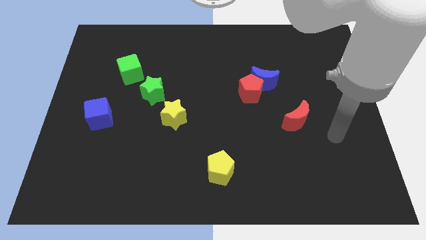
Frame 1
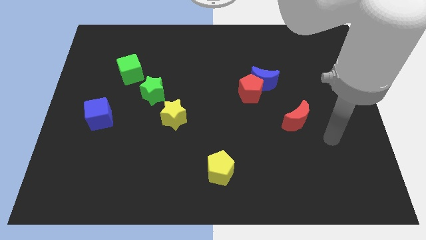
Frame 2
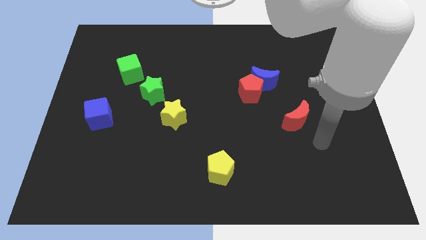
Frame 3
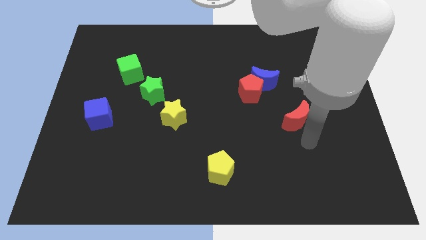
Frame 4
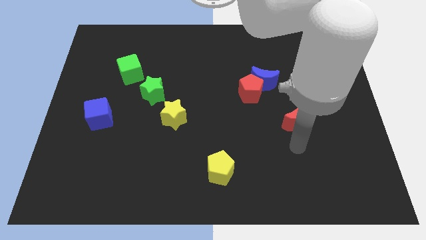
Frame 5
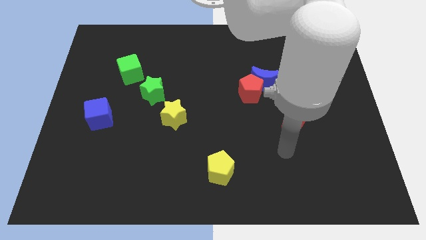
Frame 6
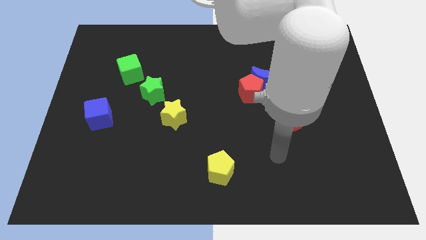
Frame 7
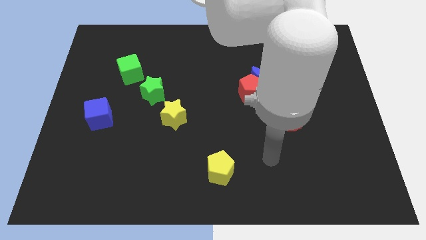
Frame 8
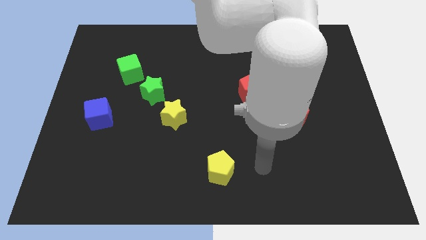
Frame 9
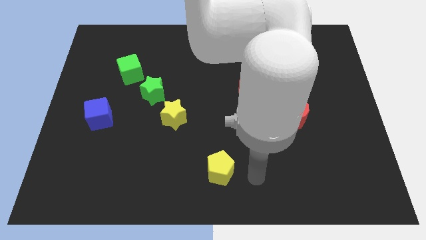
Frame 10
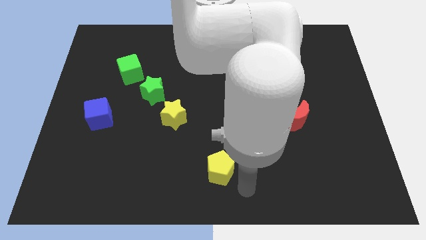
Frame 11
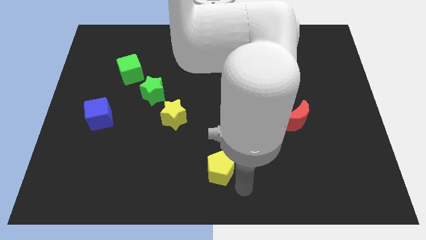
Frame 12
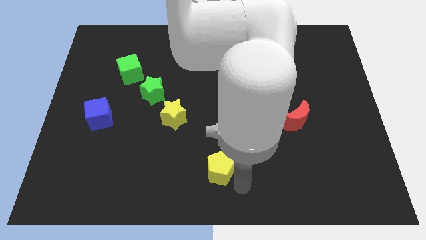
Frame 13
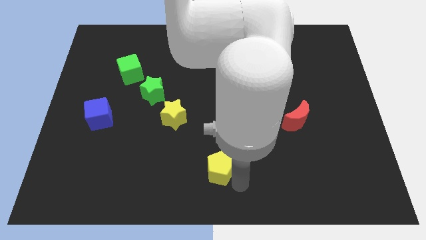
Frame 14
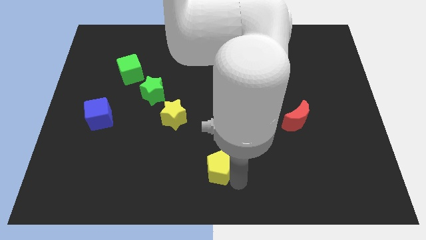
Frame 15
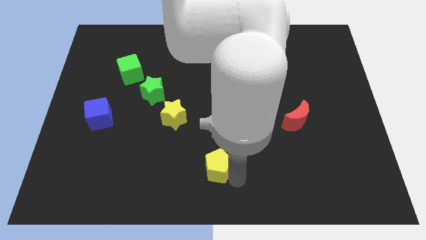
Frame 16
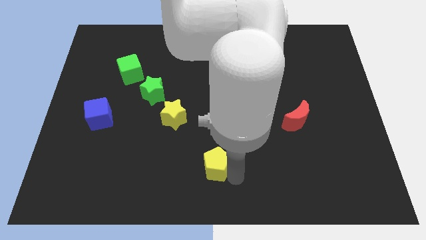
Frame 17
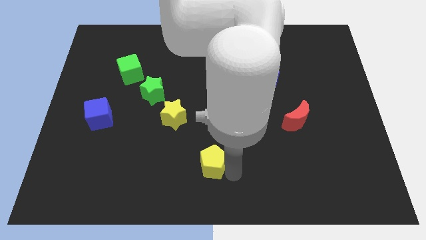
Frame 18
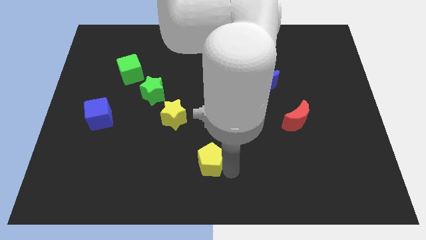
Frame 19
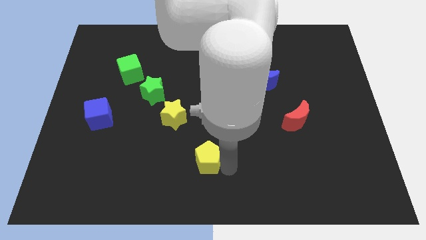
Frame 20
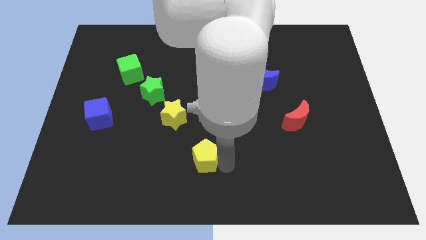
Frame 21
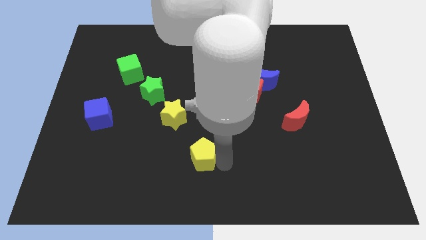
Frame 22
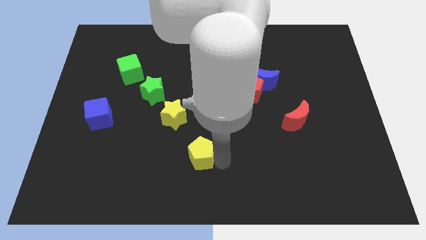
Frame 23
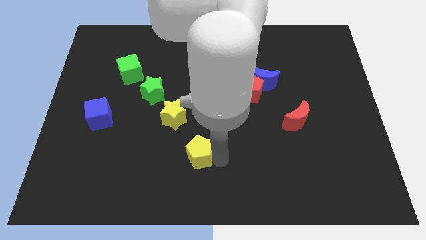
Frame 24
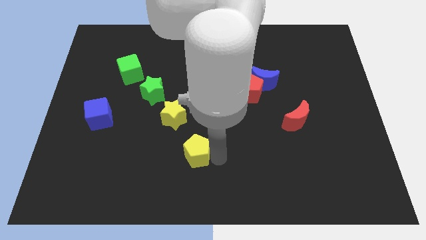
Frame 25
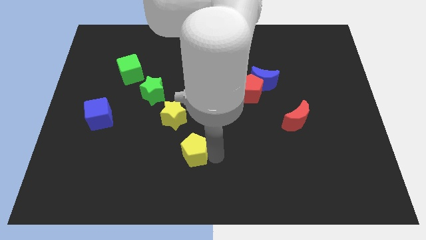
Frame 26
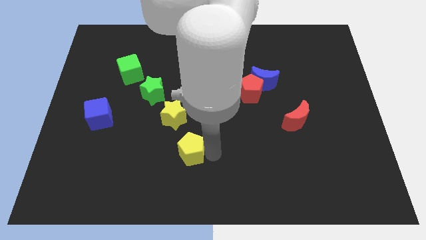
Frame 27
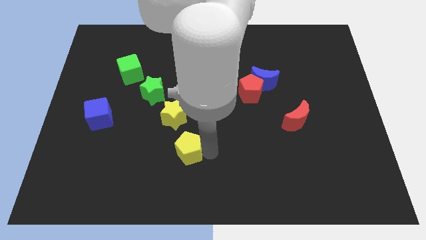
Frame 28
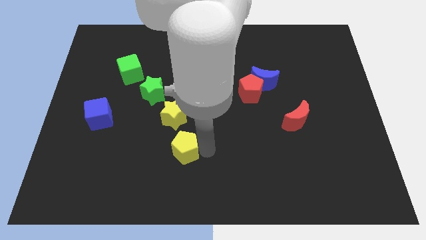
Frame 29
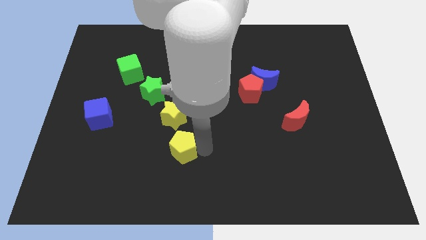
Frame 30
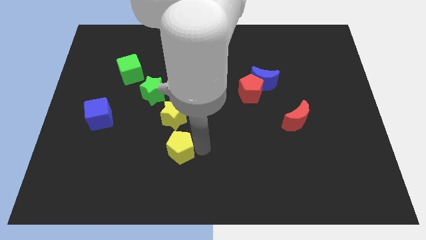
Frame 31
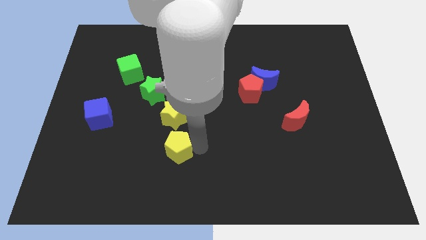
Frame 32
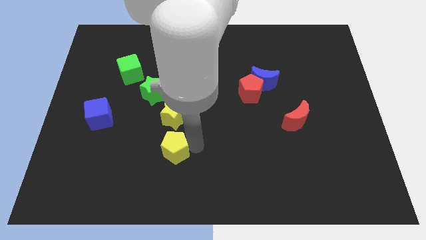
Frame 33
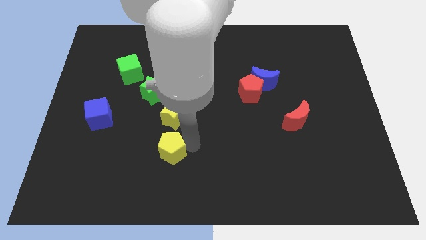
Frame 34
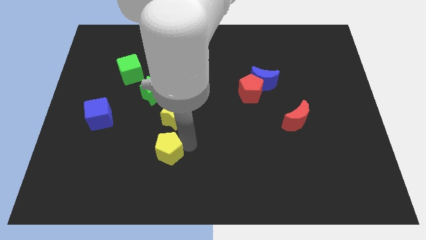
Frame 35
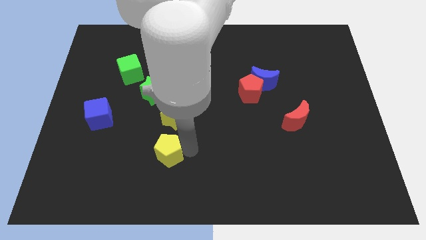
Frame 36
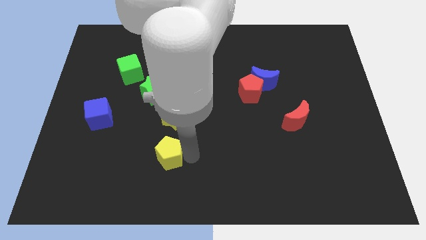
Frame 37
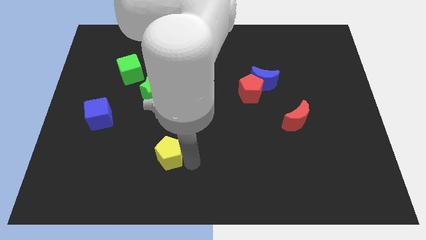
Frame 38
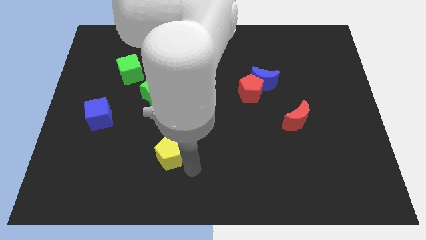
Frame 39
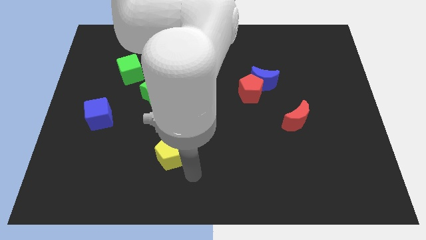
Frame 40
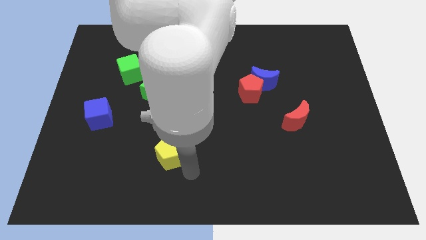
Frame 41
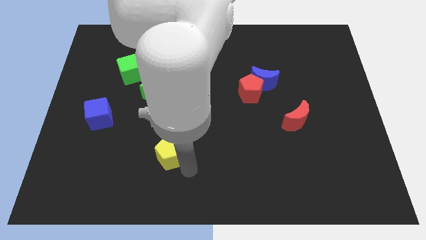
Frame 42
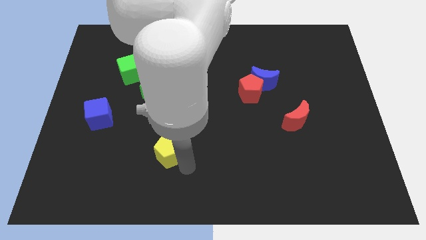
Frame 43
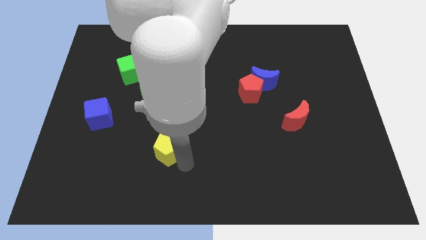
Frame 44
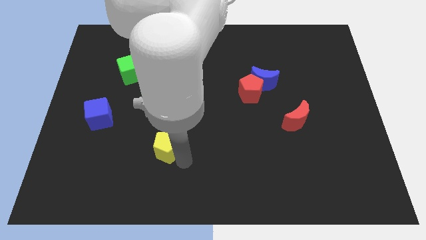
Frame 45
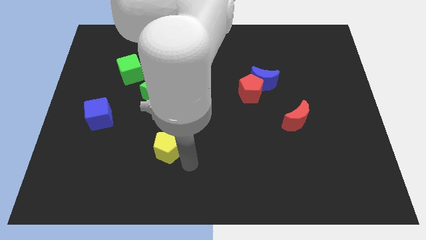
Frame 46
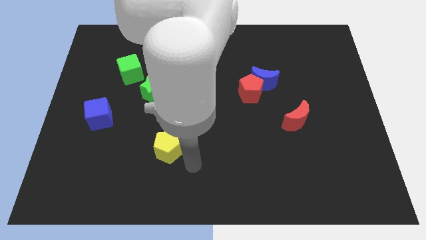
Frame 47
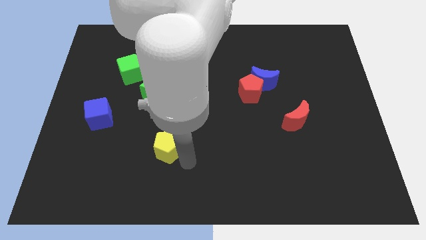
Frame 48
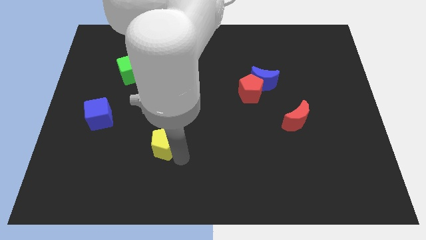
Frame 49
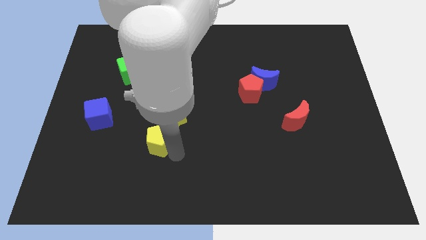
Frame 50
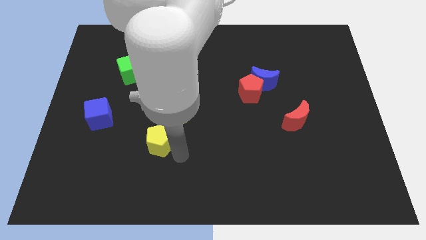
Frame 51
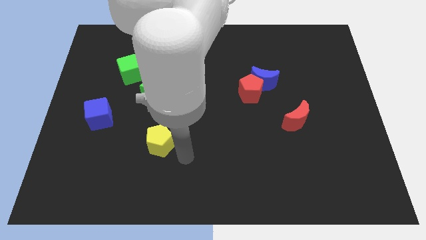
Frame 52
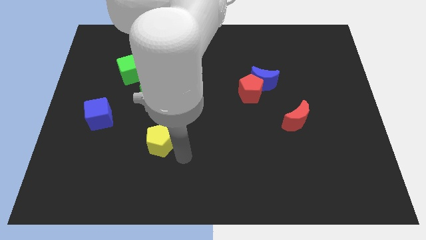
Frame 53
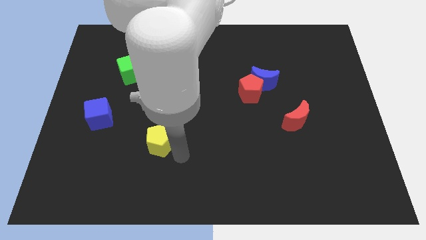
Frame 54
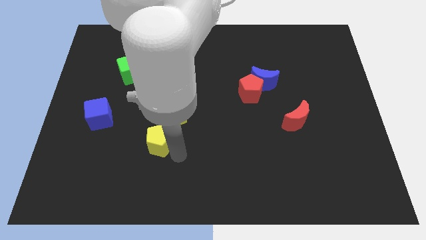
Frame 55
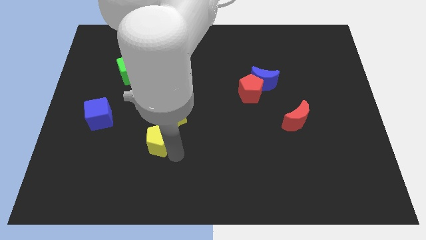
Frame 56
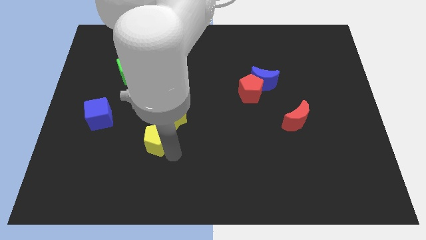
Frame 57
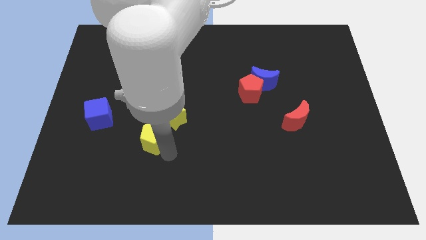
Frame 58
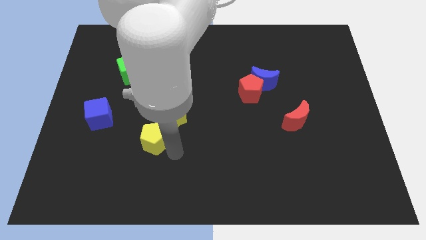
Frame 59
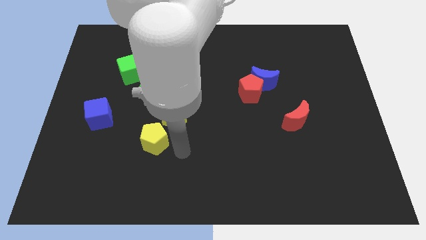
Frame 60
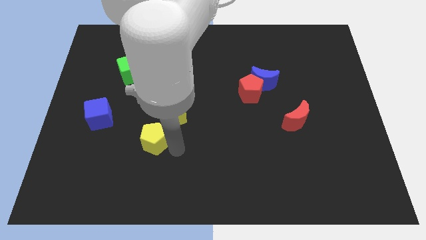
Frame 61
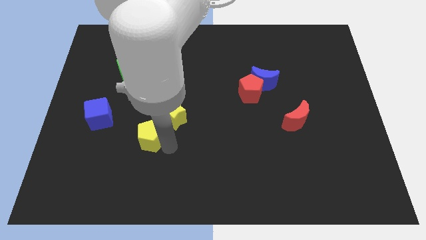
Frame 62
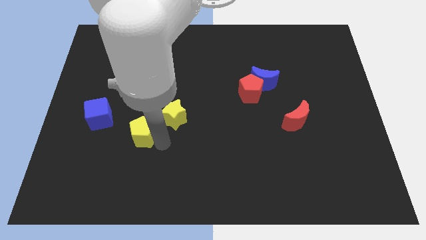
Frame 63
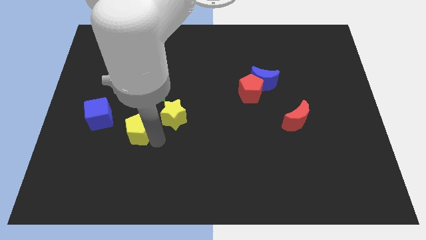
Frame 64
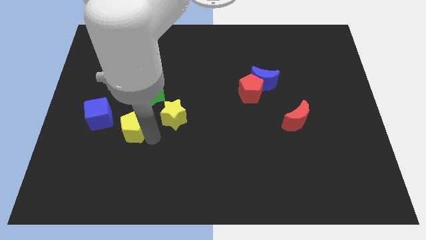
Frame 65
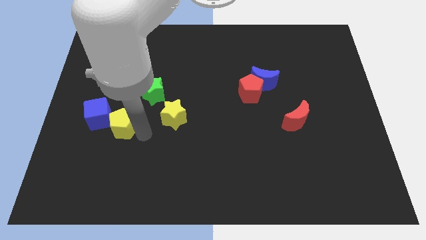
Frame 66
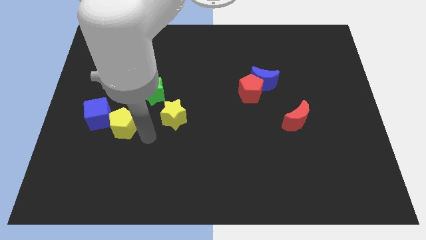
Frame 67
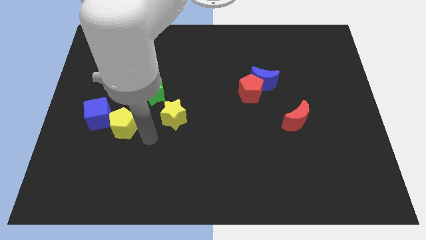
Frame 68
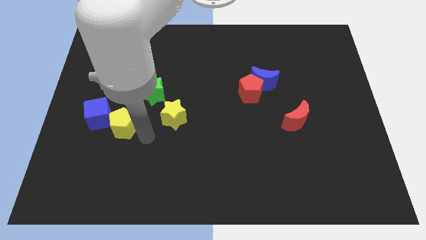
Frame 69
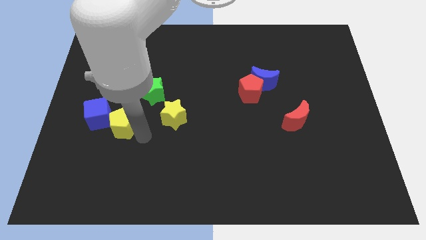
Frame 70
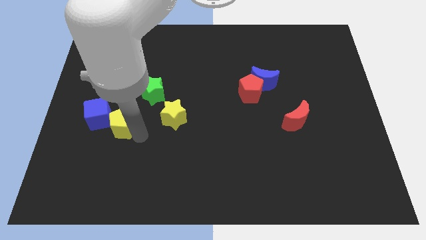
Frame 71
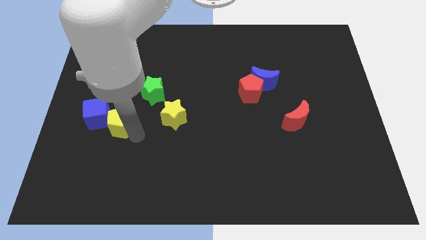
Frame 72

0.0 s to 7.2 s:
move the yellow pentagon to the blue cube
